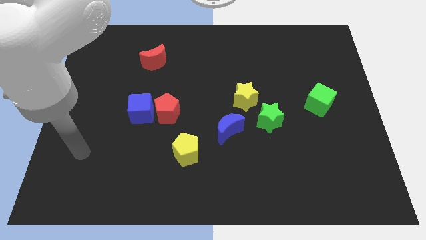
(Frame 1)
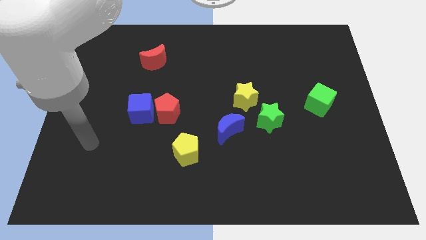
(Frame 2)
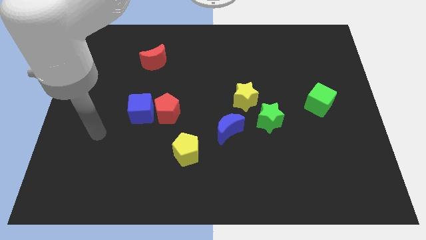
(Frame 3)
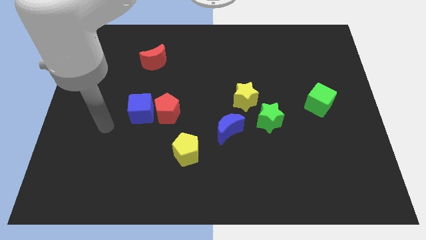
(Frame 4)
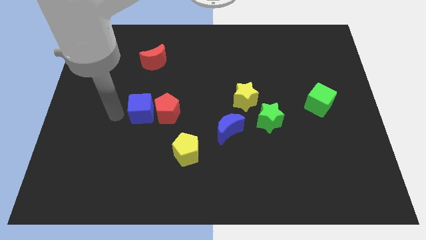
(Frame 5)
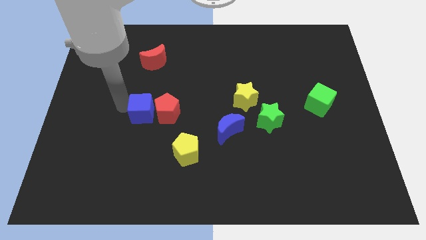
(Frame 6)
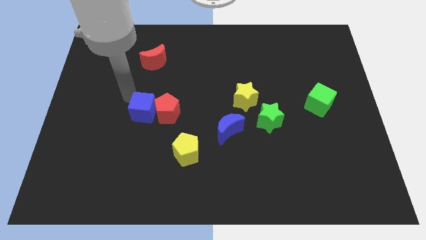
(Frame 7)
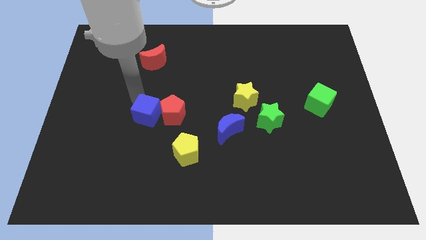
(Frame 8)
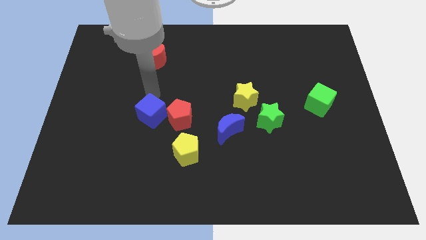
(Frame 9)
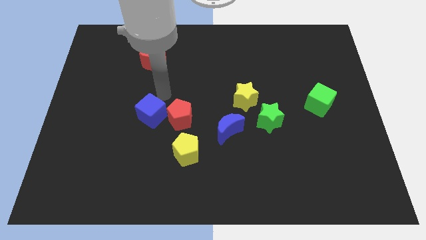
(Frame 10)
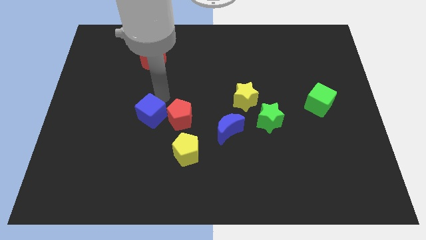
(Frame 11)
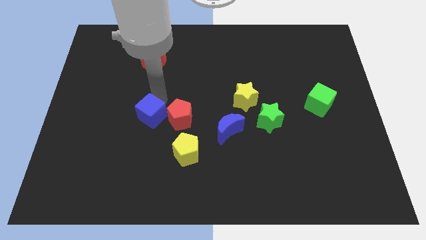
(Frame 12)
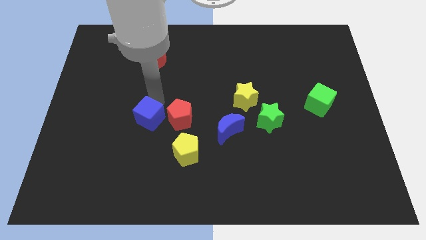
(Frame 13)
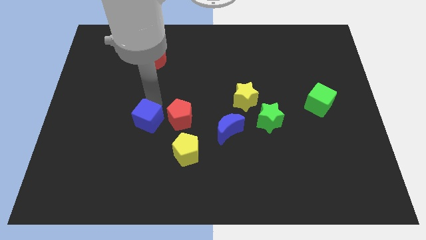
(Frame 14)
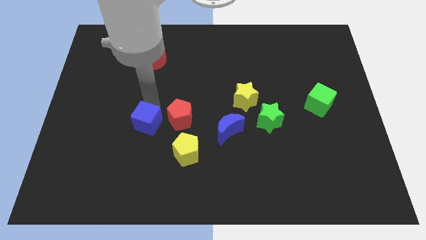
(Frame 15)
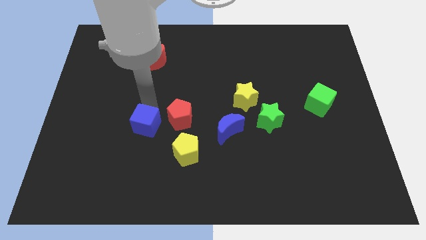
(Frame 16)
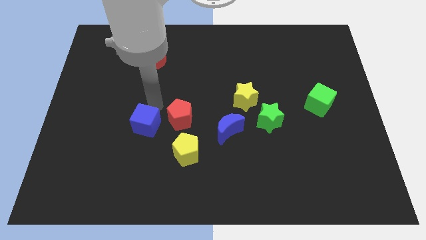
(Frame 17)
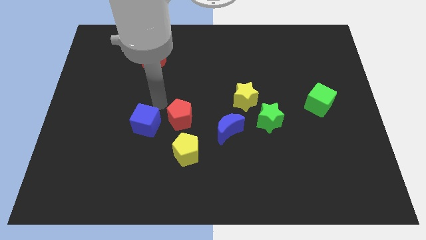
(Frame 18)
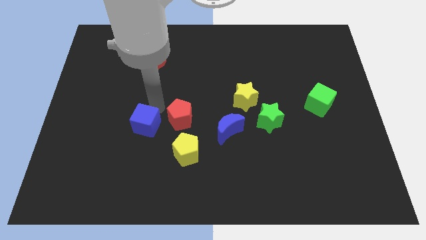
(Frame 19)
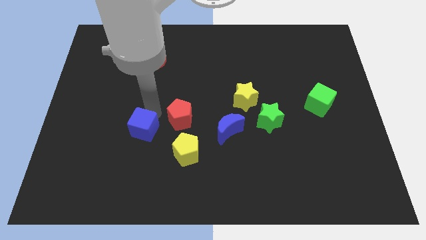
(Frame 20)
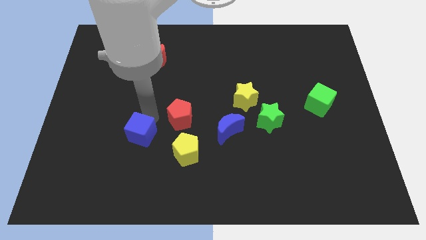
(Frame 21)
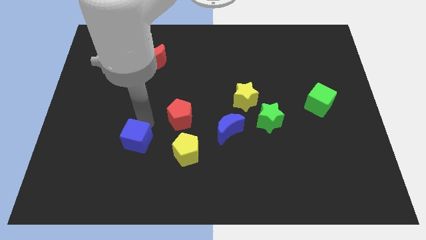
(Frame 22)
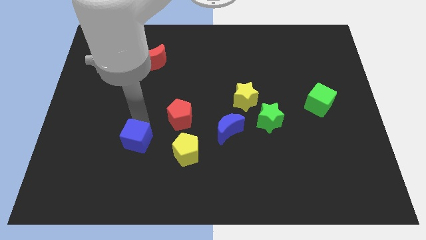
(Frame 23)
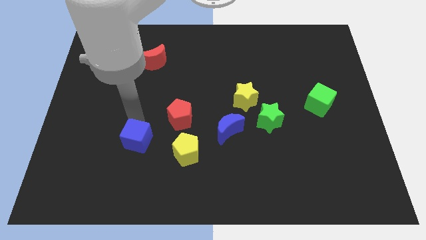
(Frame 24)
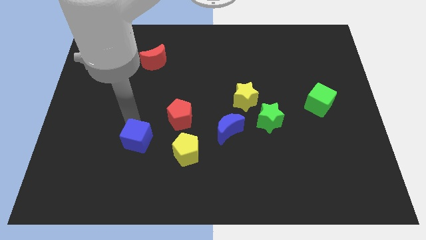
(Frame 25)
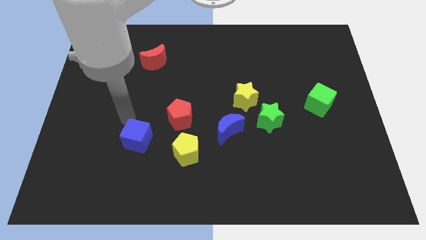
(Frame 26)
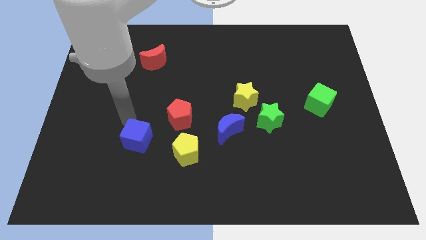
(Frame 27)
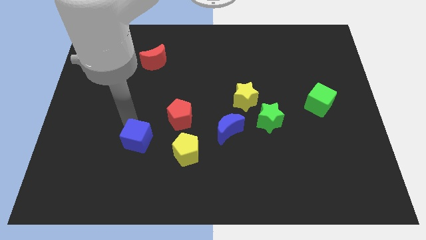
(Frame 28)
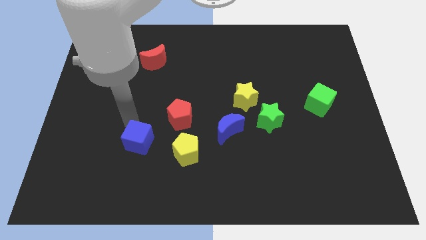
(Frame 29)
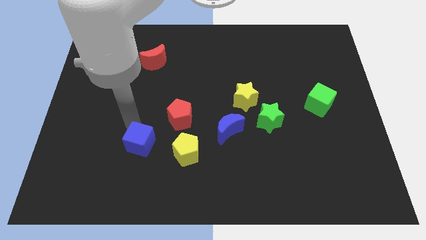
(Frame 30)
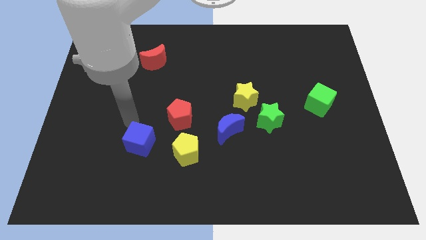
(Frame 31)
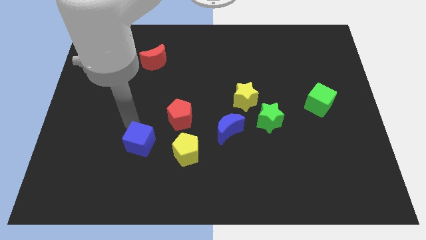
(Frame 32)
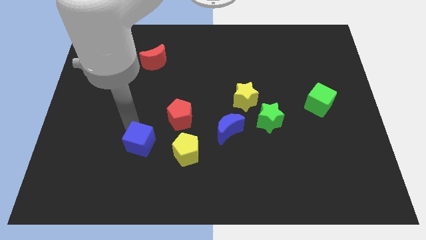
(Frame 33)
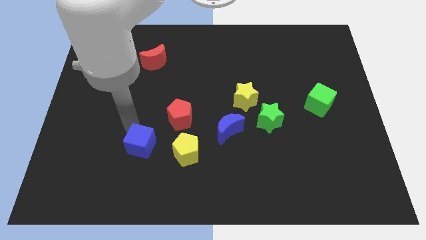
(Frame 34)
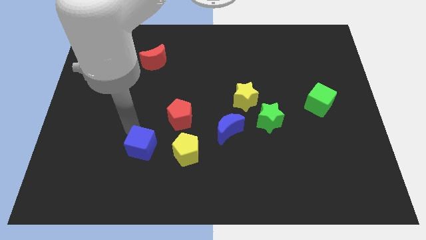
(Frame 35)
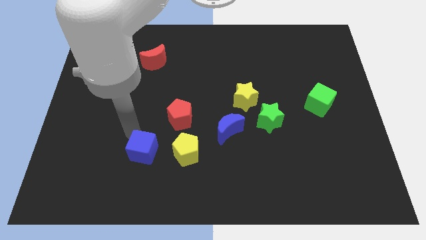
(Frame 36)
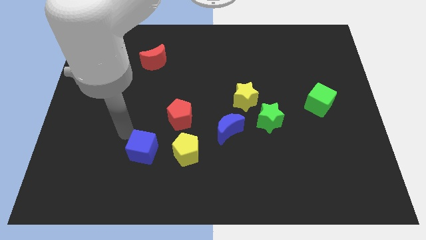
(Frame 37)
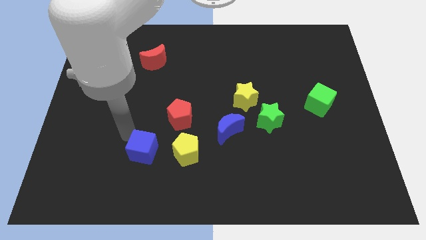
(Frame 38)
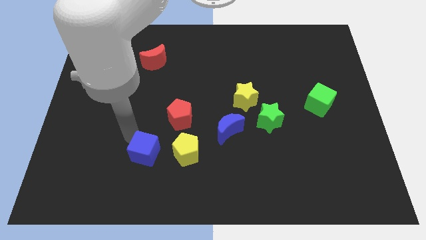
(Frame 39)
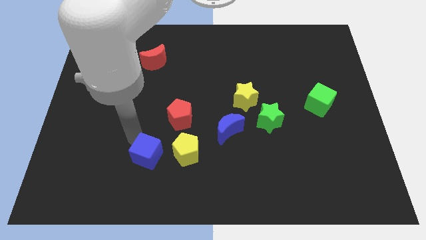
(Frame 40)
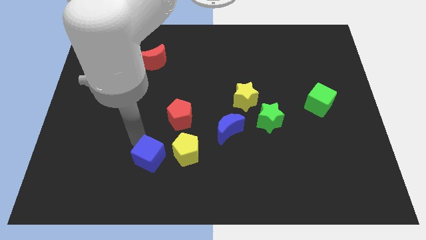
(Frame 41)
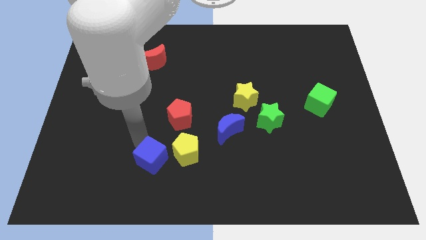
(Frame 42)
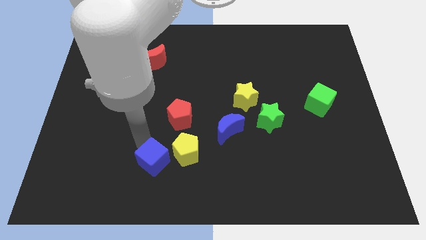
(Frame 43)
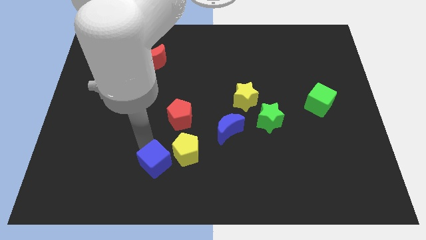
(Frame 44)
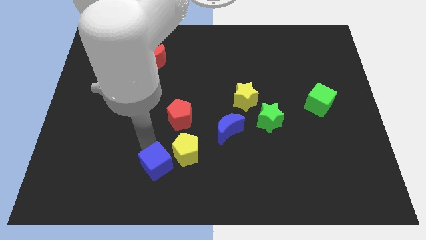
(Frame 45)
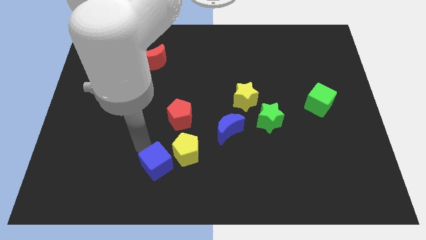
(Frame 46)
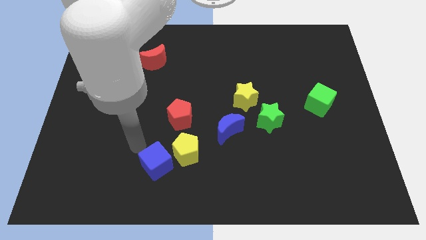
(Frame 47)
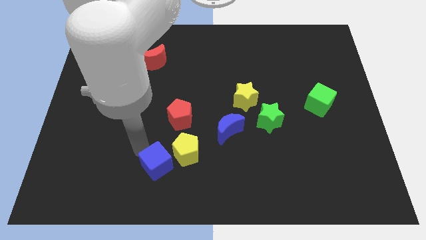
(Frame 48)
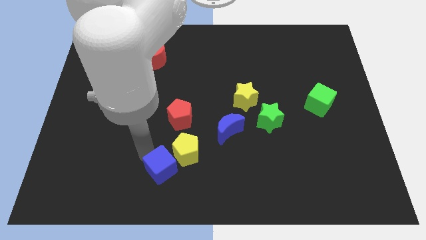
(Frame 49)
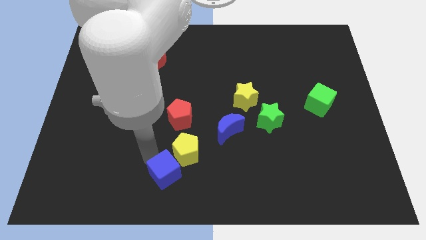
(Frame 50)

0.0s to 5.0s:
slide the blue cube to the bottom

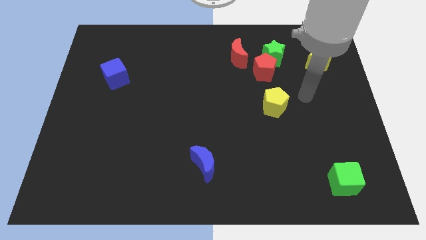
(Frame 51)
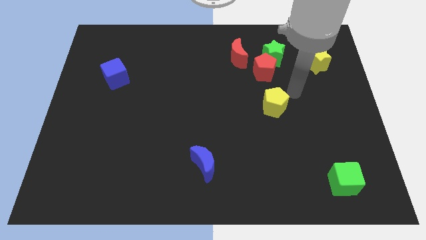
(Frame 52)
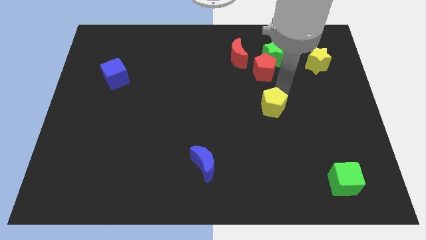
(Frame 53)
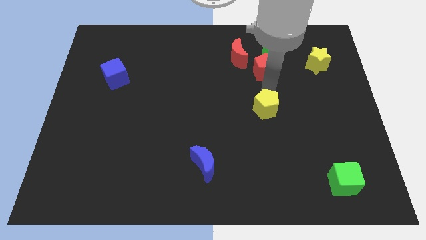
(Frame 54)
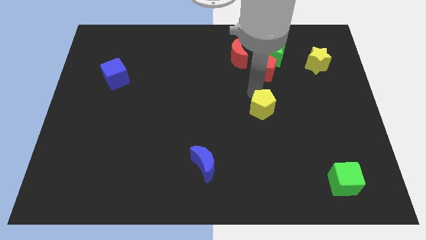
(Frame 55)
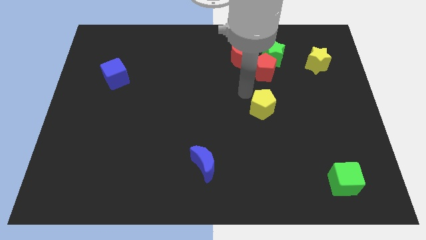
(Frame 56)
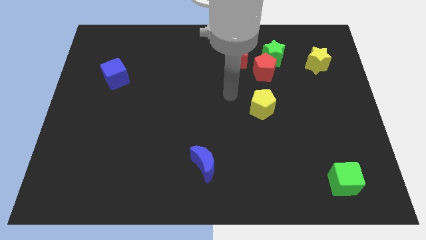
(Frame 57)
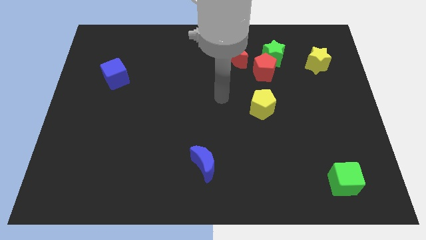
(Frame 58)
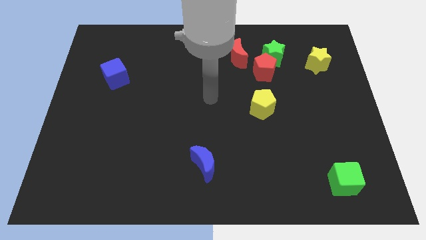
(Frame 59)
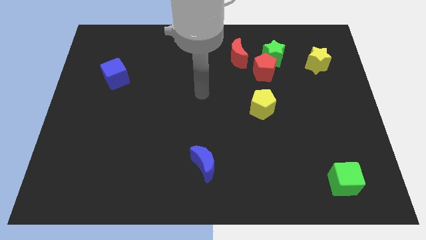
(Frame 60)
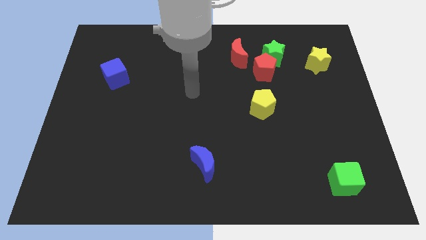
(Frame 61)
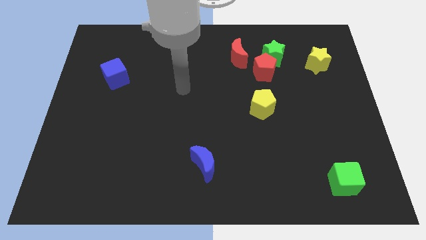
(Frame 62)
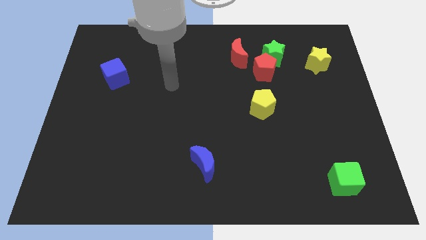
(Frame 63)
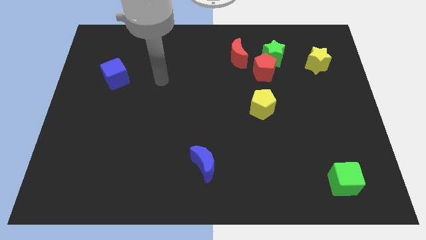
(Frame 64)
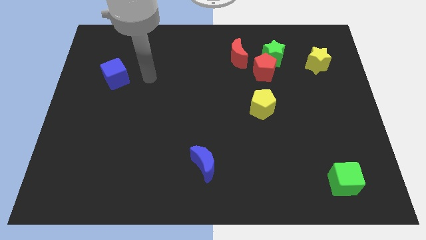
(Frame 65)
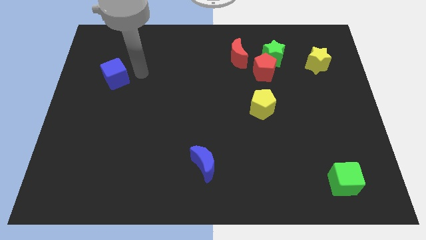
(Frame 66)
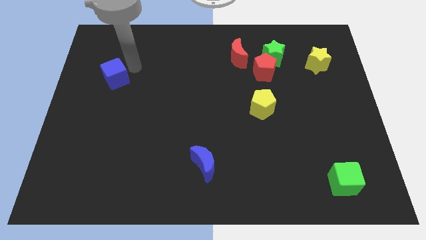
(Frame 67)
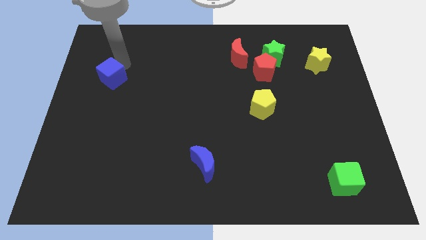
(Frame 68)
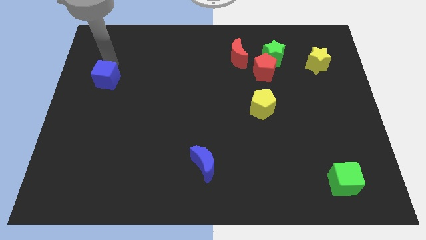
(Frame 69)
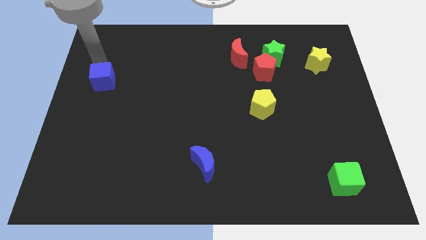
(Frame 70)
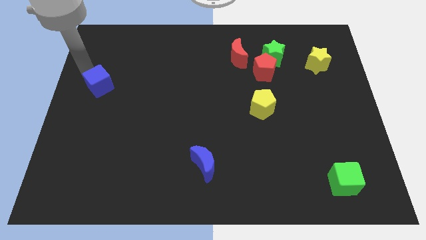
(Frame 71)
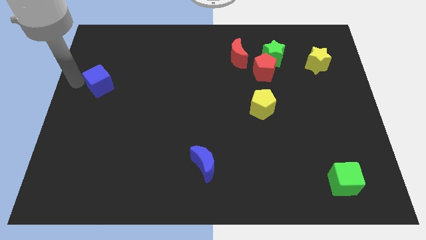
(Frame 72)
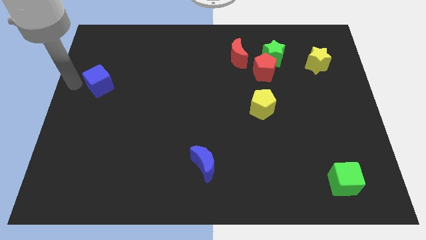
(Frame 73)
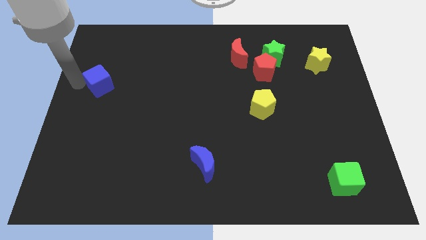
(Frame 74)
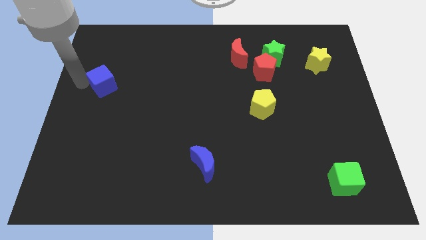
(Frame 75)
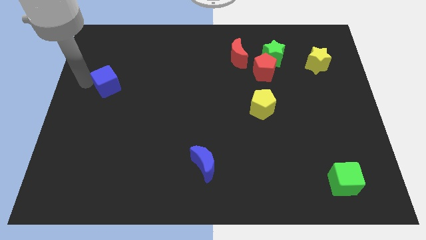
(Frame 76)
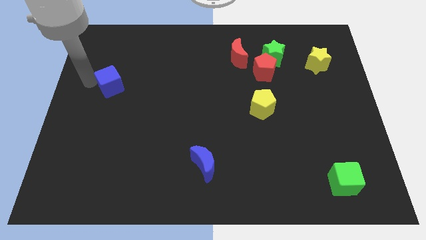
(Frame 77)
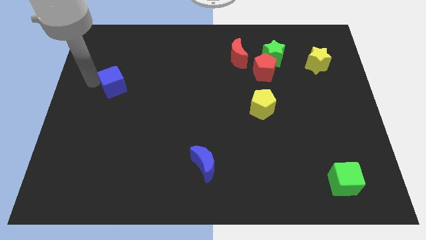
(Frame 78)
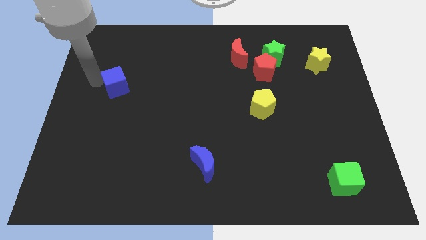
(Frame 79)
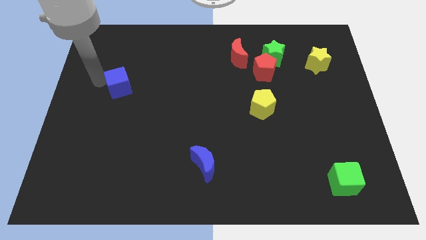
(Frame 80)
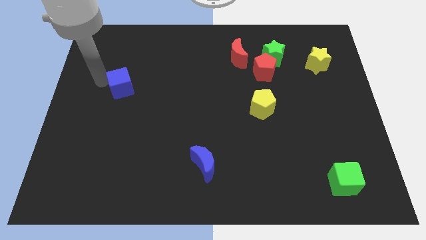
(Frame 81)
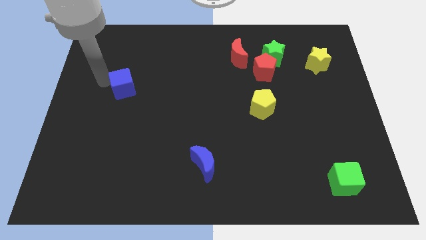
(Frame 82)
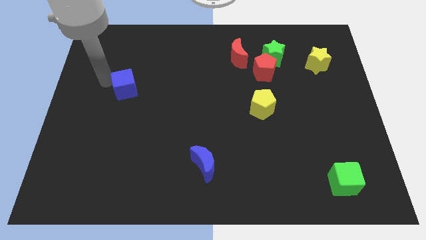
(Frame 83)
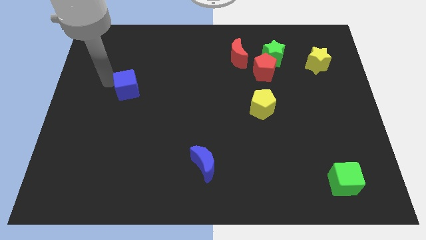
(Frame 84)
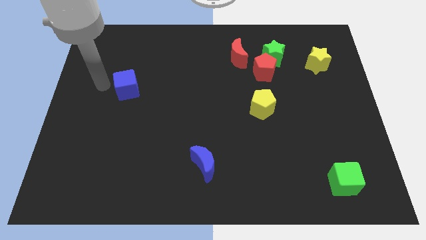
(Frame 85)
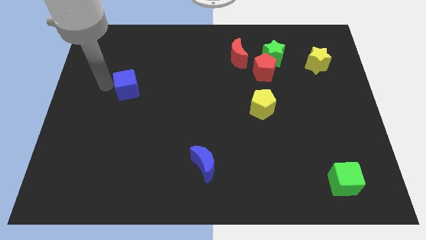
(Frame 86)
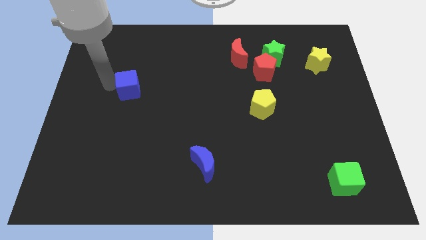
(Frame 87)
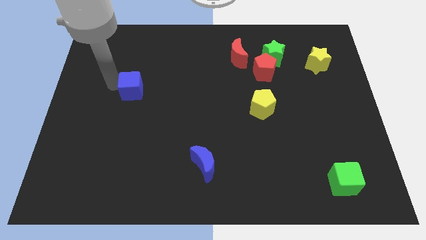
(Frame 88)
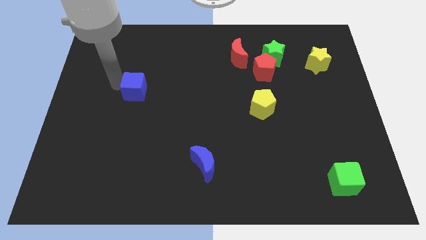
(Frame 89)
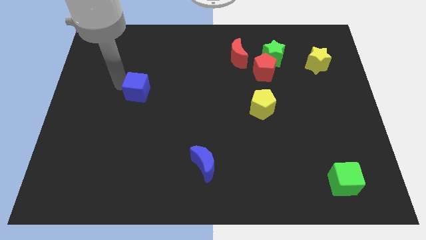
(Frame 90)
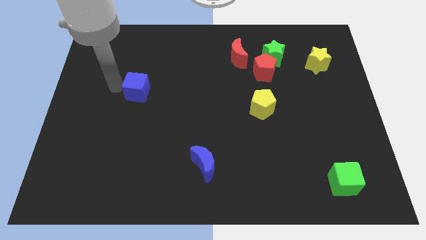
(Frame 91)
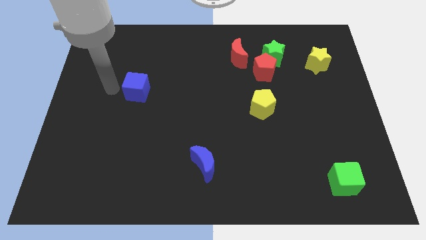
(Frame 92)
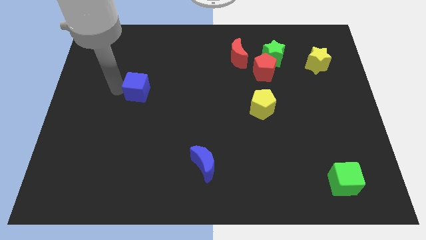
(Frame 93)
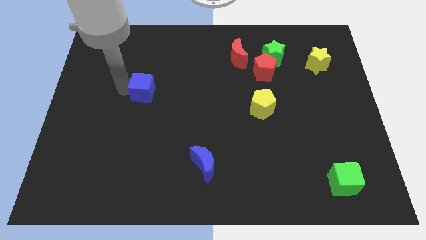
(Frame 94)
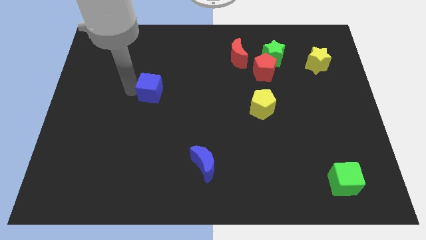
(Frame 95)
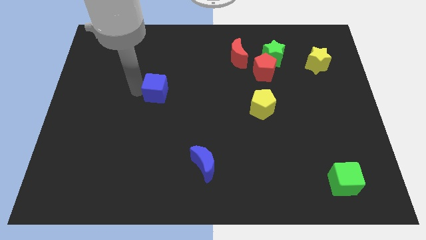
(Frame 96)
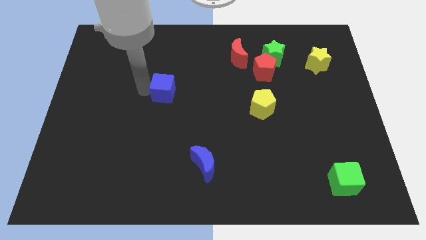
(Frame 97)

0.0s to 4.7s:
move the blue cube to the center
